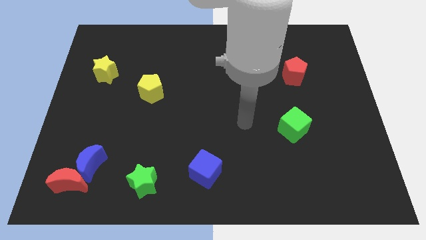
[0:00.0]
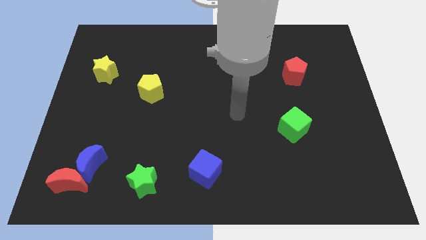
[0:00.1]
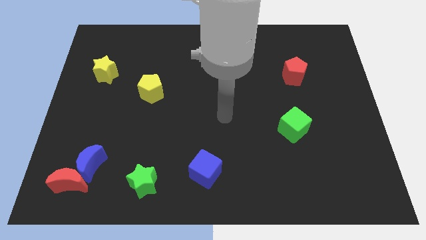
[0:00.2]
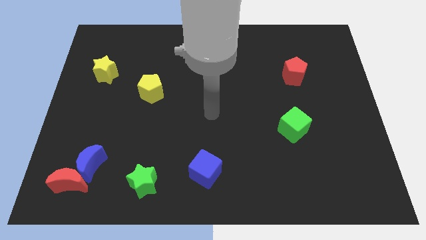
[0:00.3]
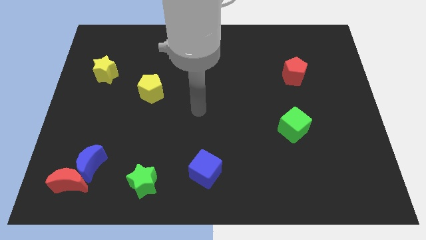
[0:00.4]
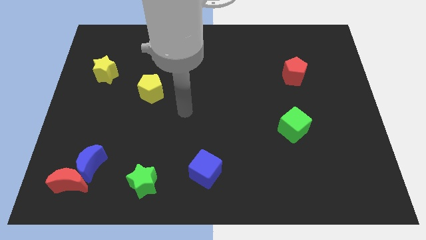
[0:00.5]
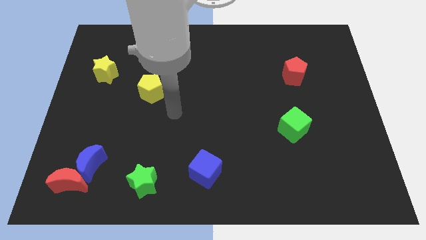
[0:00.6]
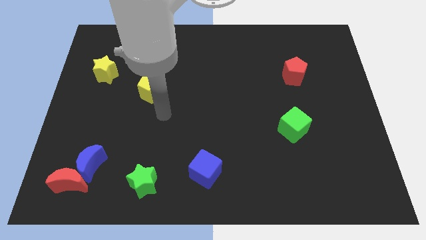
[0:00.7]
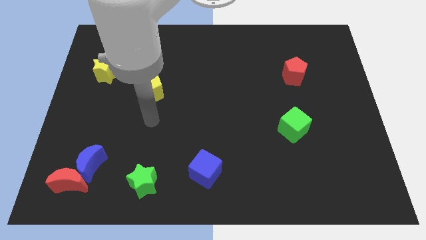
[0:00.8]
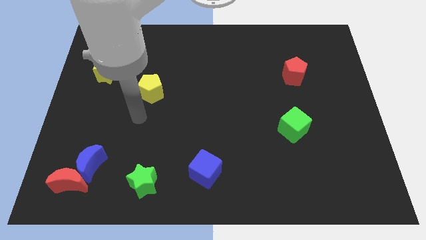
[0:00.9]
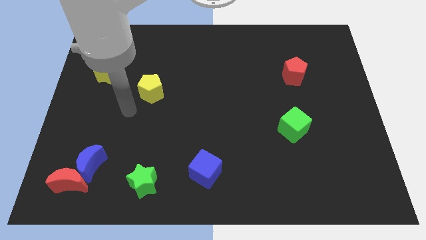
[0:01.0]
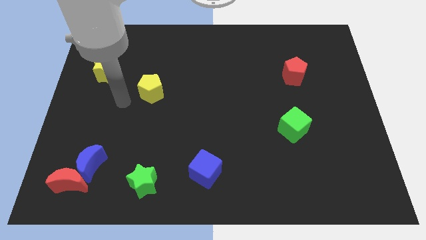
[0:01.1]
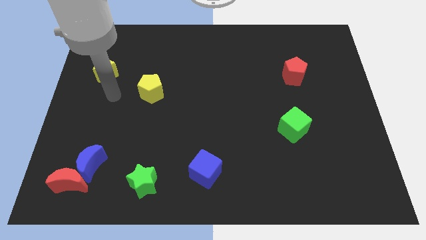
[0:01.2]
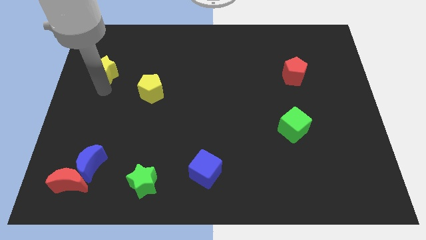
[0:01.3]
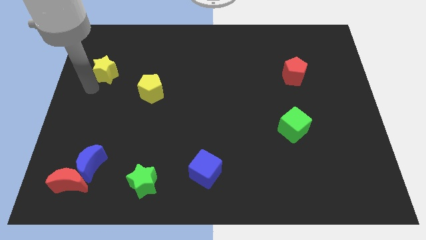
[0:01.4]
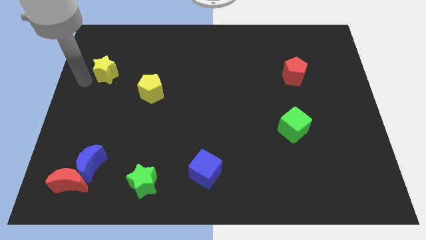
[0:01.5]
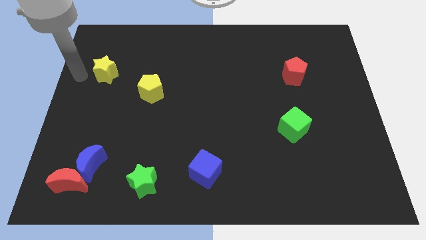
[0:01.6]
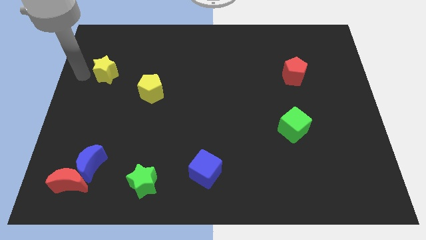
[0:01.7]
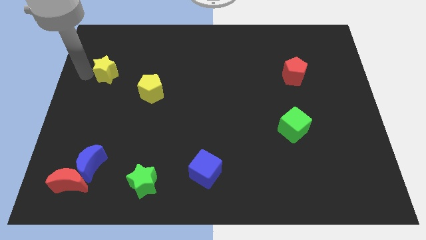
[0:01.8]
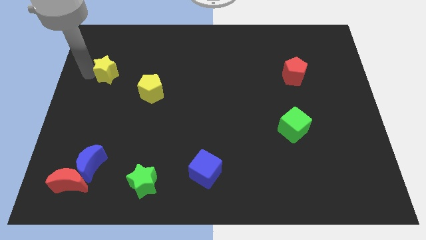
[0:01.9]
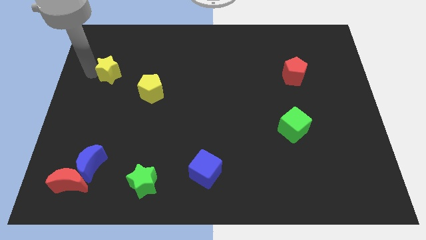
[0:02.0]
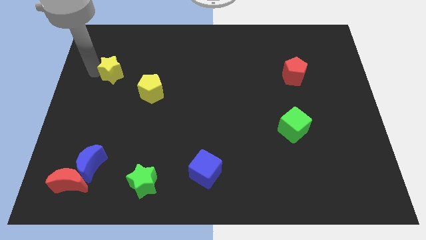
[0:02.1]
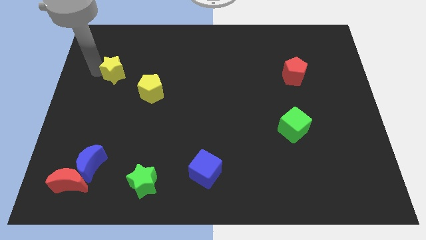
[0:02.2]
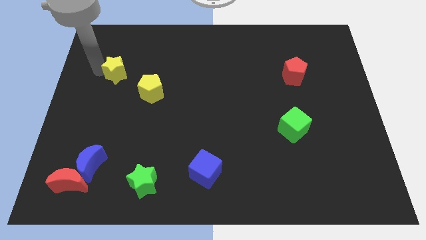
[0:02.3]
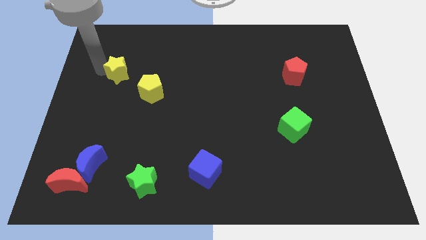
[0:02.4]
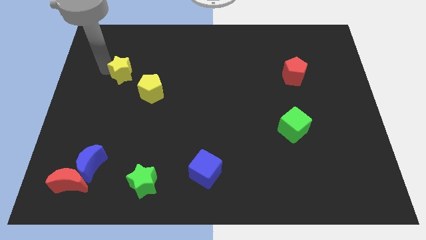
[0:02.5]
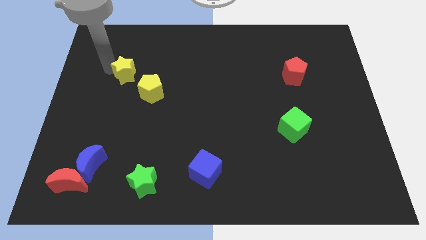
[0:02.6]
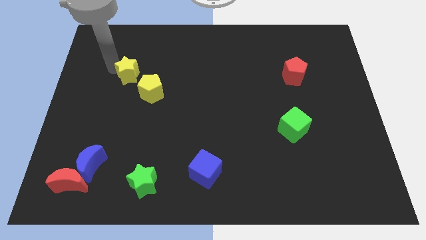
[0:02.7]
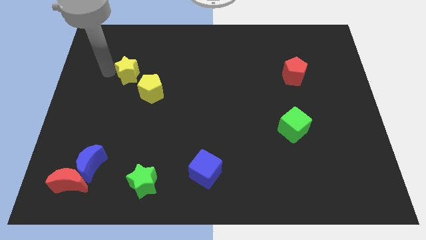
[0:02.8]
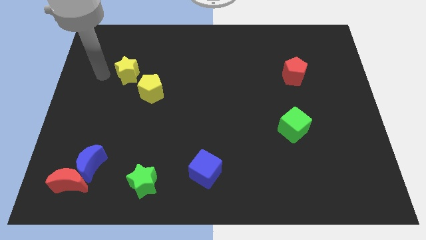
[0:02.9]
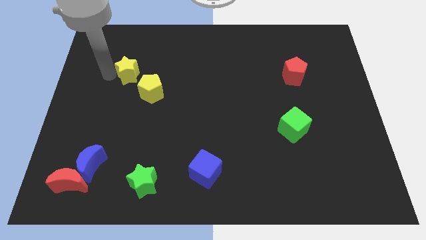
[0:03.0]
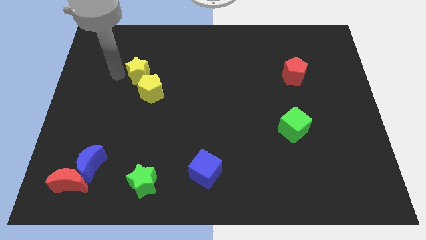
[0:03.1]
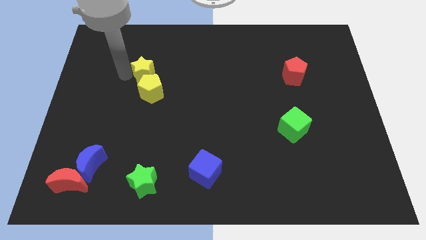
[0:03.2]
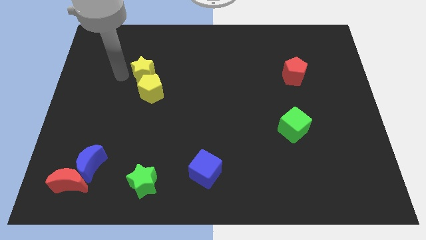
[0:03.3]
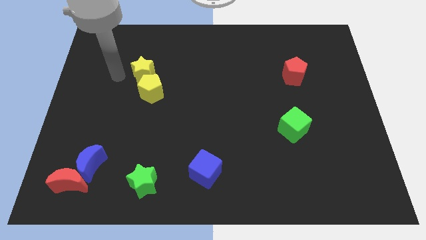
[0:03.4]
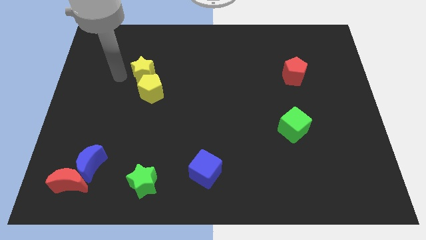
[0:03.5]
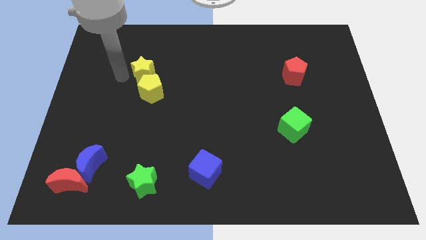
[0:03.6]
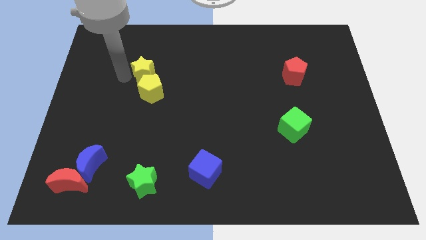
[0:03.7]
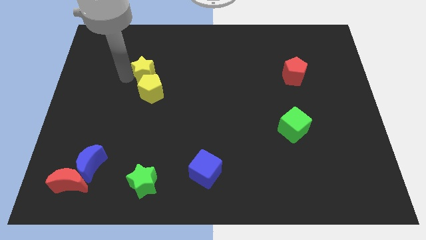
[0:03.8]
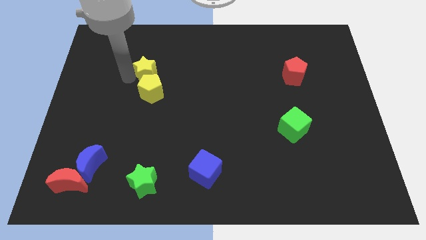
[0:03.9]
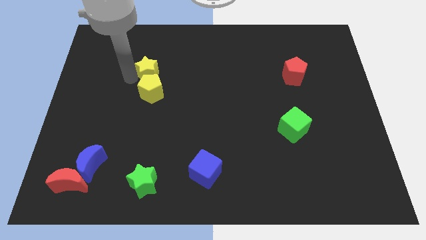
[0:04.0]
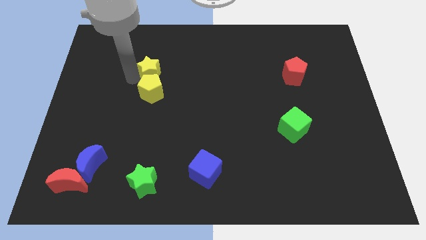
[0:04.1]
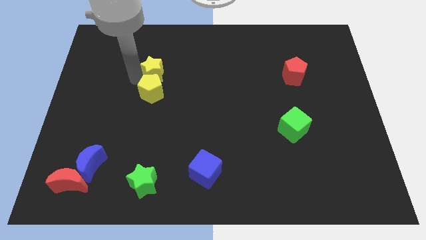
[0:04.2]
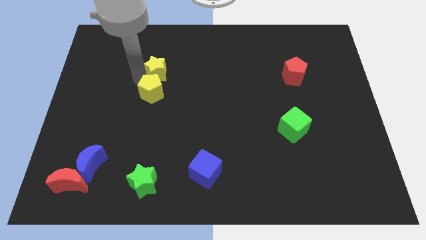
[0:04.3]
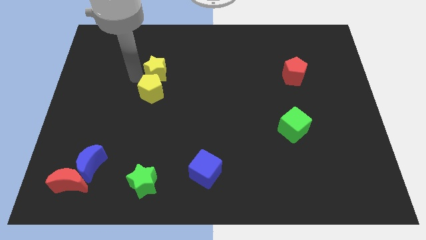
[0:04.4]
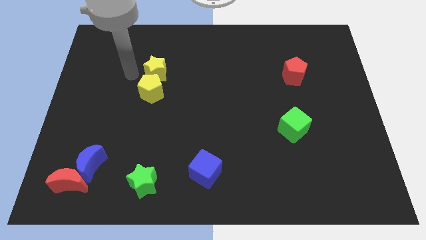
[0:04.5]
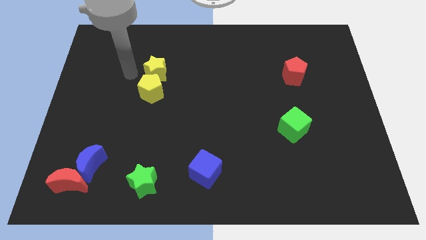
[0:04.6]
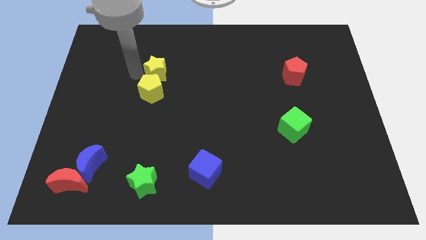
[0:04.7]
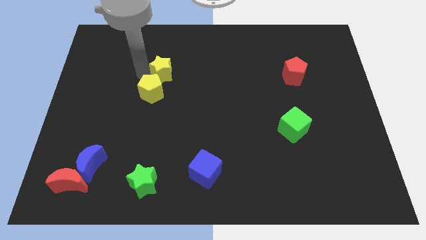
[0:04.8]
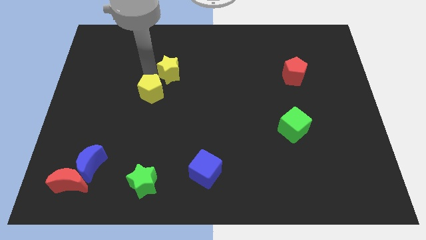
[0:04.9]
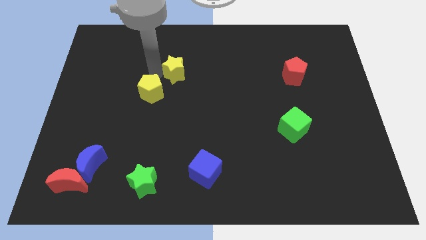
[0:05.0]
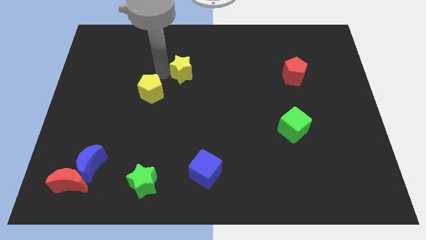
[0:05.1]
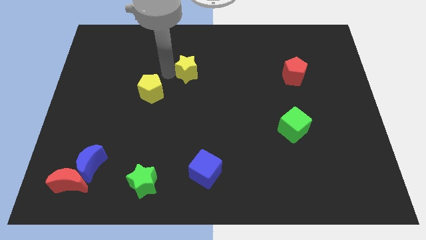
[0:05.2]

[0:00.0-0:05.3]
push the yellow star to the right

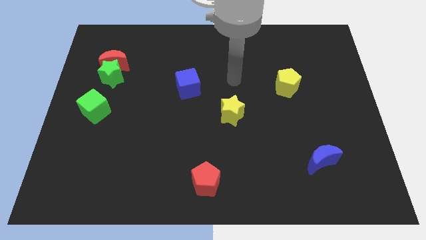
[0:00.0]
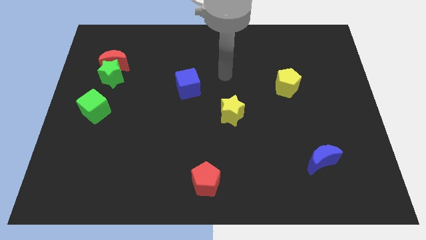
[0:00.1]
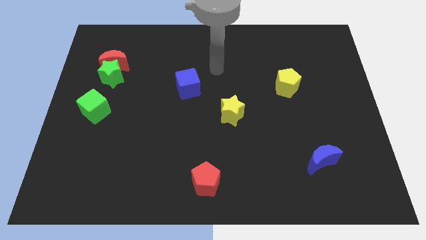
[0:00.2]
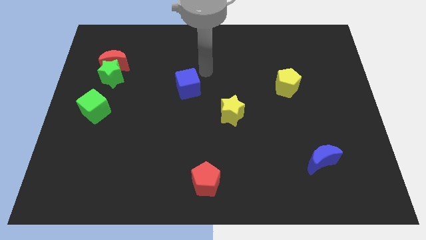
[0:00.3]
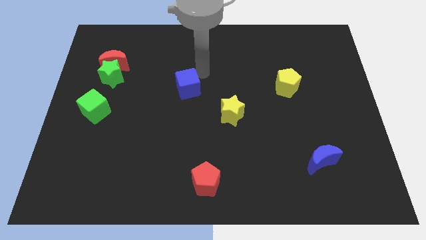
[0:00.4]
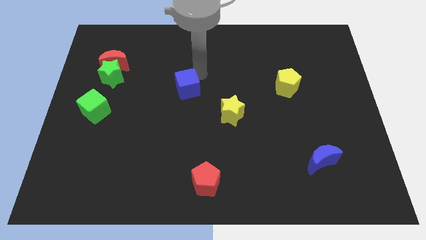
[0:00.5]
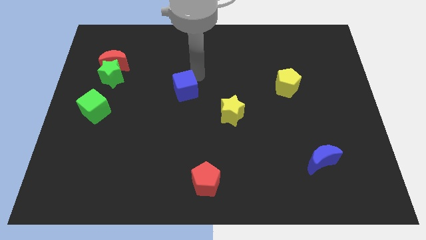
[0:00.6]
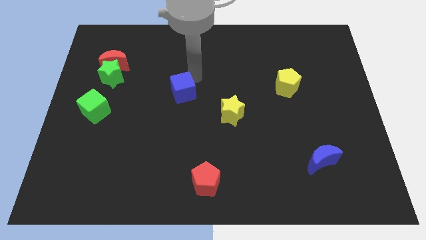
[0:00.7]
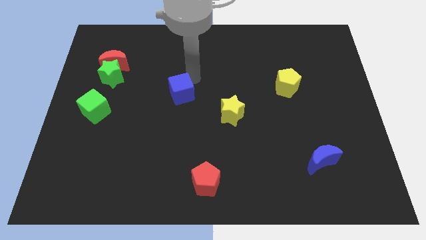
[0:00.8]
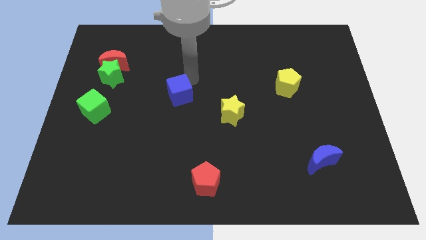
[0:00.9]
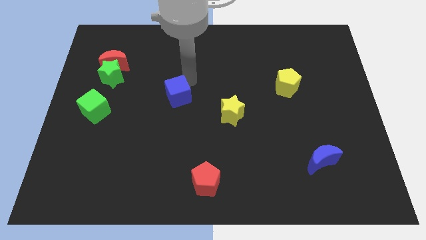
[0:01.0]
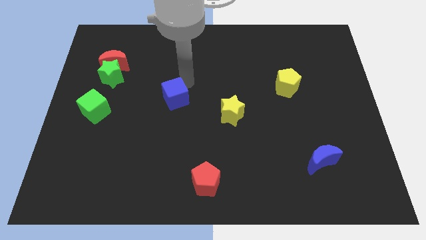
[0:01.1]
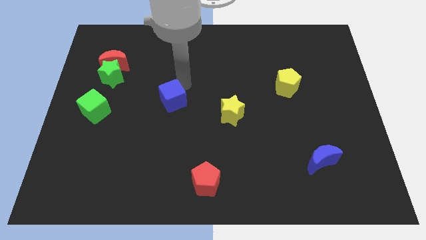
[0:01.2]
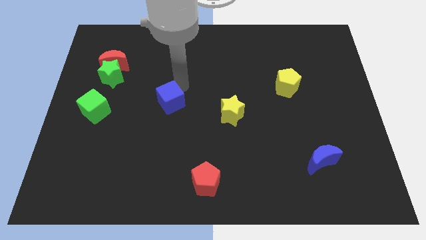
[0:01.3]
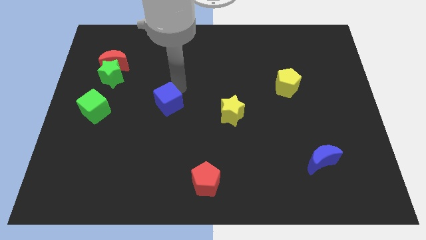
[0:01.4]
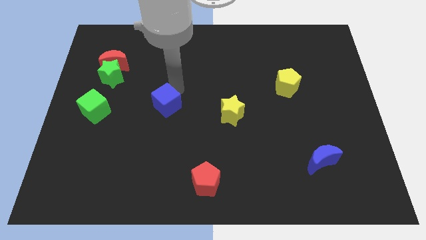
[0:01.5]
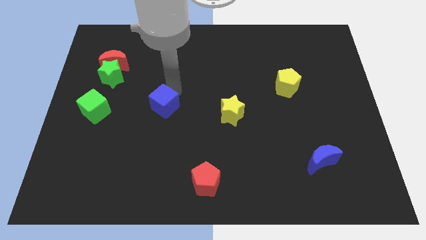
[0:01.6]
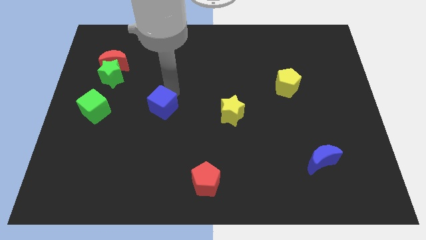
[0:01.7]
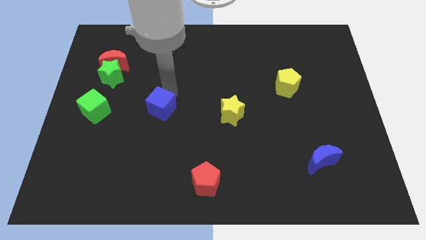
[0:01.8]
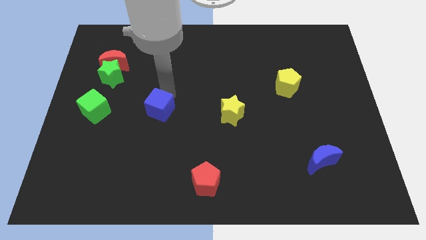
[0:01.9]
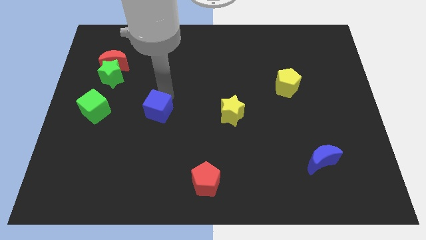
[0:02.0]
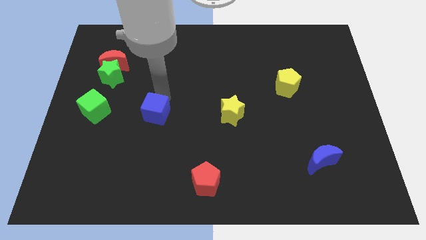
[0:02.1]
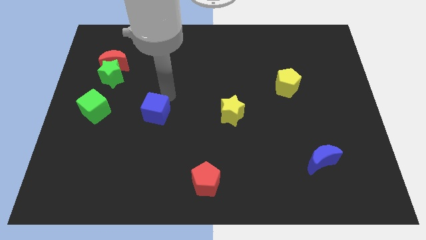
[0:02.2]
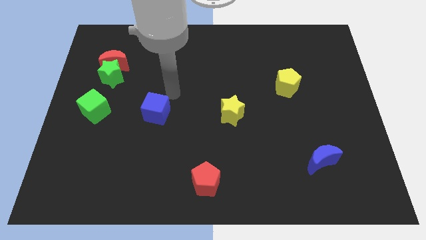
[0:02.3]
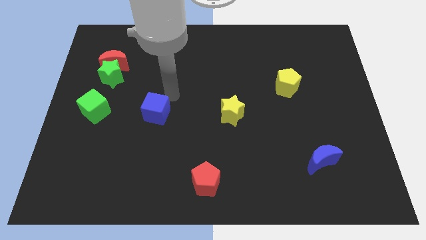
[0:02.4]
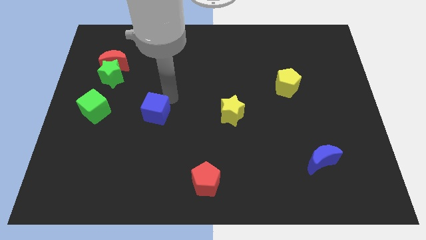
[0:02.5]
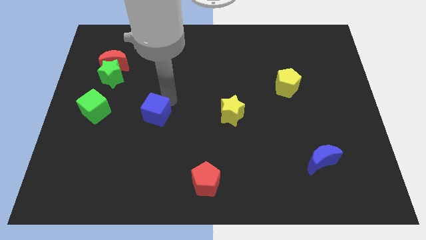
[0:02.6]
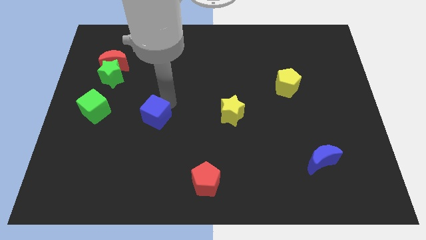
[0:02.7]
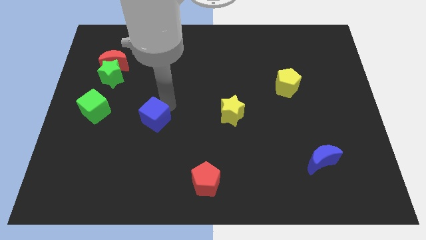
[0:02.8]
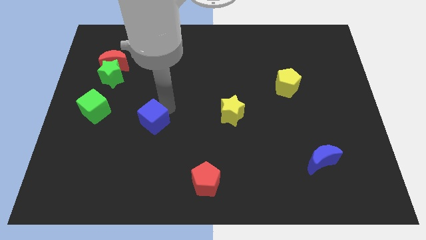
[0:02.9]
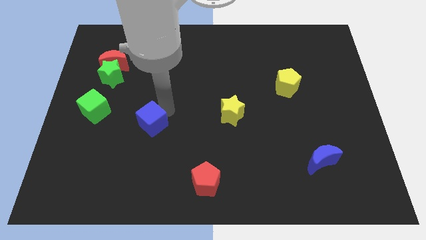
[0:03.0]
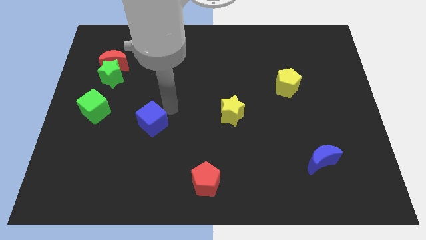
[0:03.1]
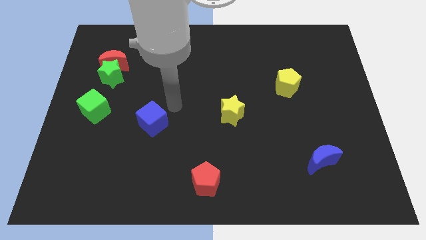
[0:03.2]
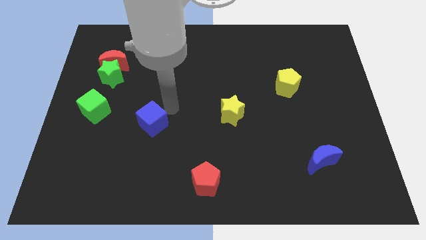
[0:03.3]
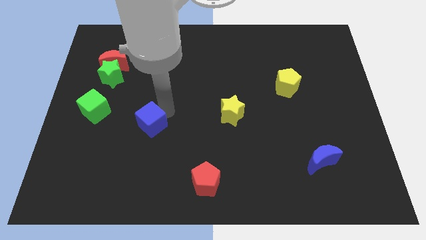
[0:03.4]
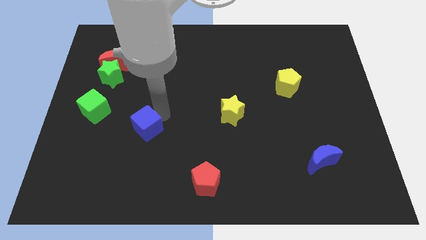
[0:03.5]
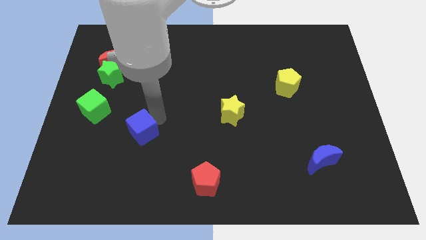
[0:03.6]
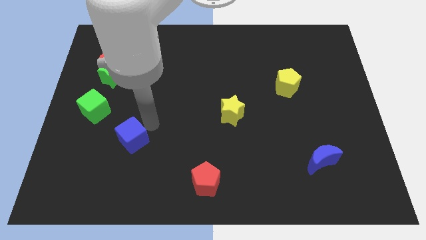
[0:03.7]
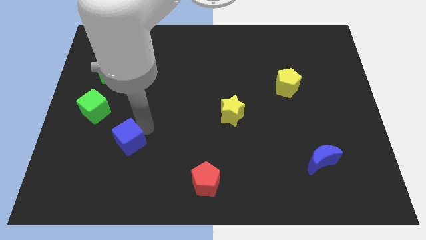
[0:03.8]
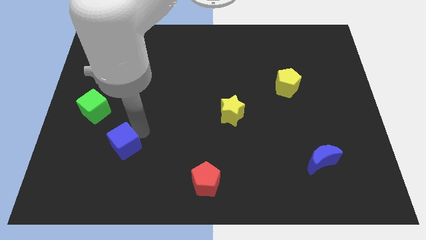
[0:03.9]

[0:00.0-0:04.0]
move the blue cube downwards and to the left
